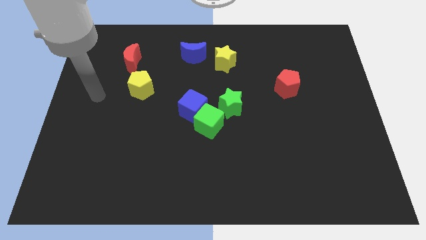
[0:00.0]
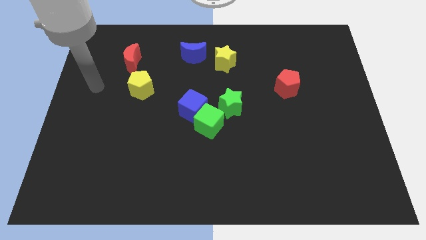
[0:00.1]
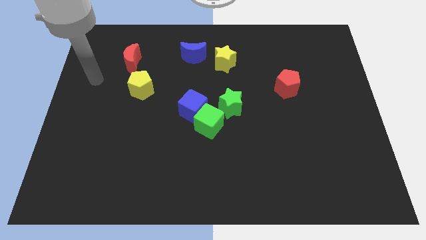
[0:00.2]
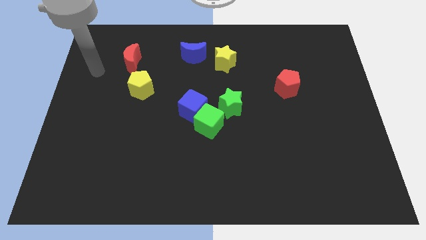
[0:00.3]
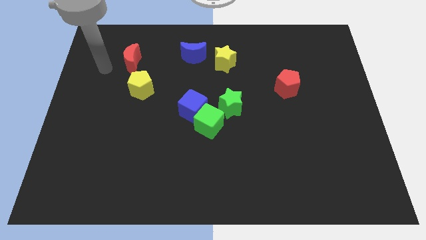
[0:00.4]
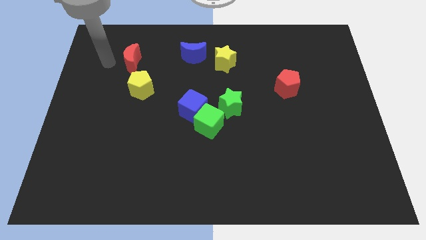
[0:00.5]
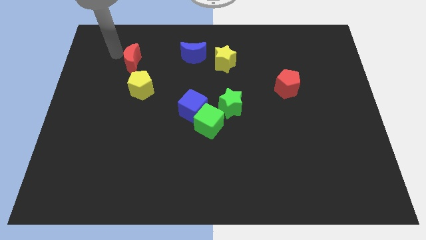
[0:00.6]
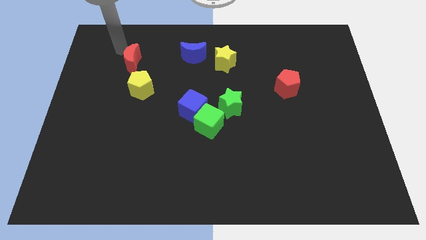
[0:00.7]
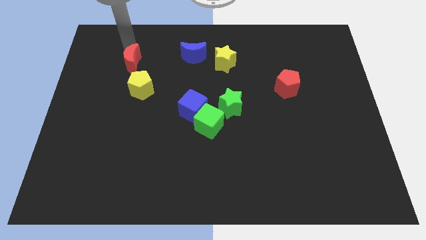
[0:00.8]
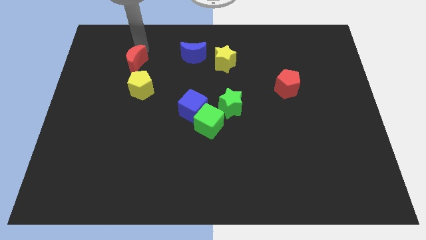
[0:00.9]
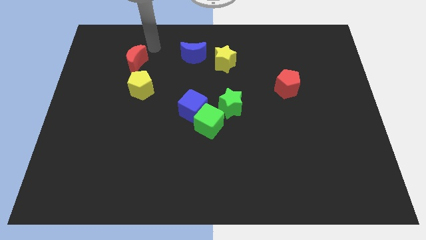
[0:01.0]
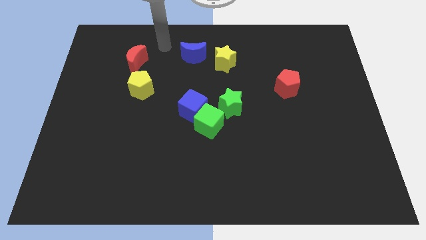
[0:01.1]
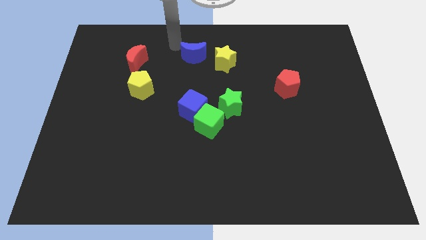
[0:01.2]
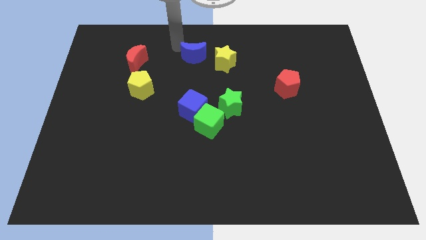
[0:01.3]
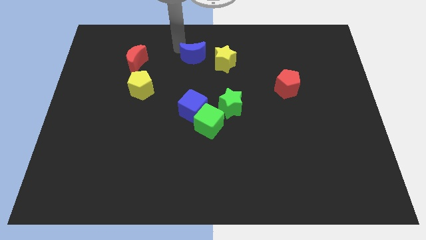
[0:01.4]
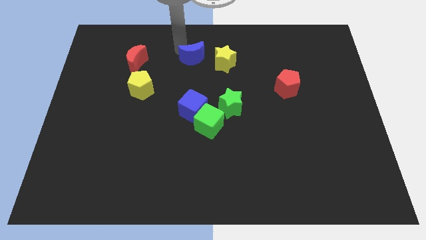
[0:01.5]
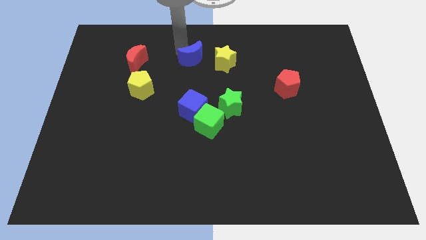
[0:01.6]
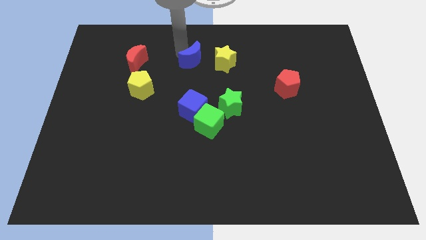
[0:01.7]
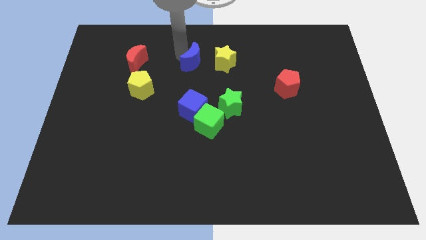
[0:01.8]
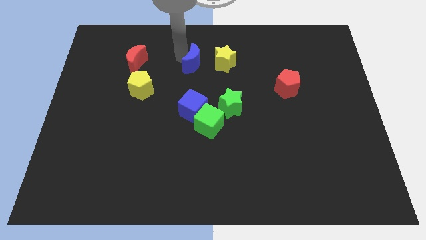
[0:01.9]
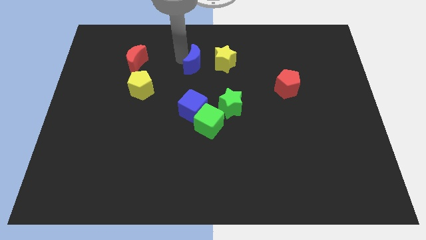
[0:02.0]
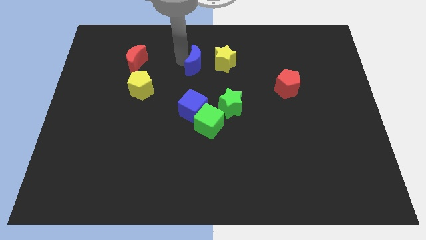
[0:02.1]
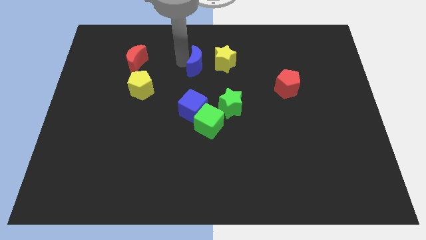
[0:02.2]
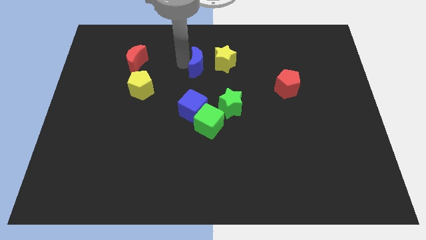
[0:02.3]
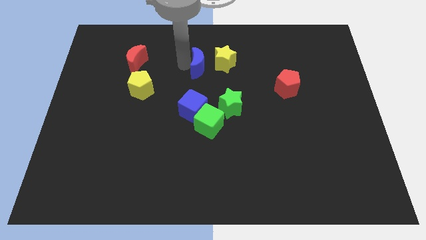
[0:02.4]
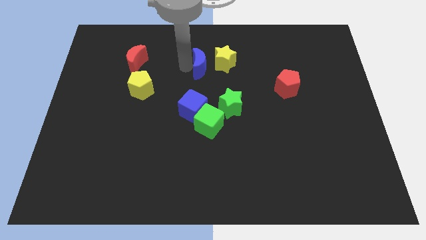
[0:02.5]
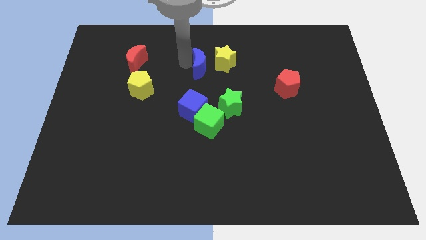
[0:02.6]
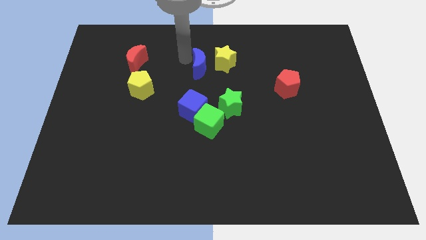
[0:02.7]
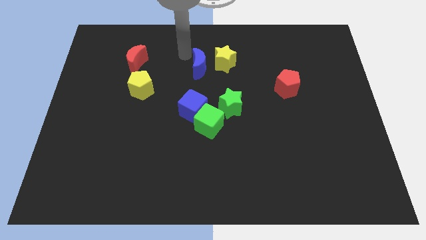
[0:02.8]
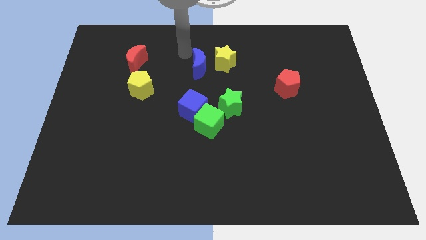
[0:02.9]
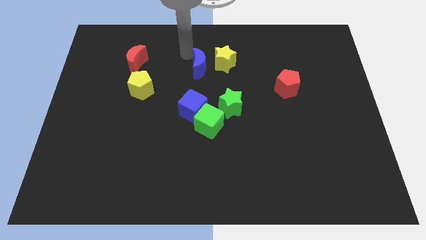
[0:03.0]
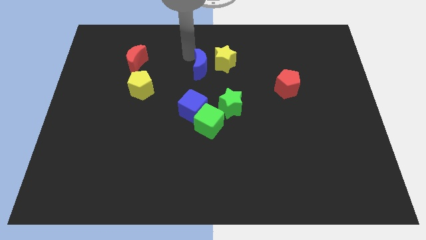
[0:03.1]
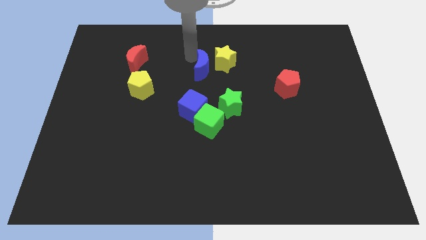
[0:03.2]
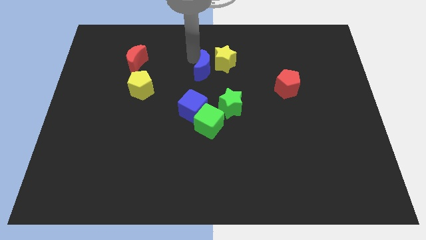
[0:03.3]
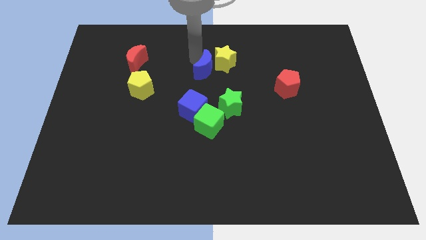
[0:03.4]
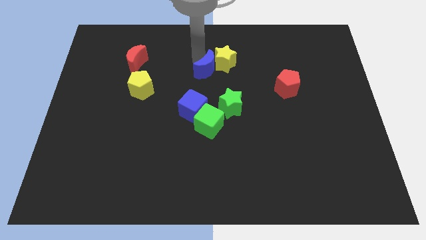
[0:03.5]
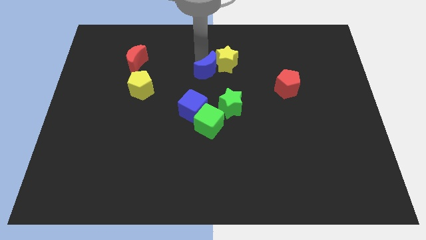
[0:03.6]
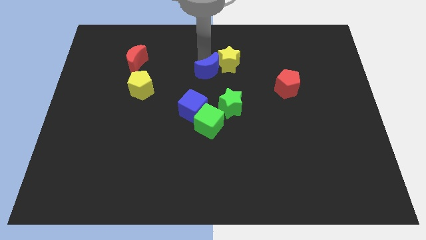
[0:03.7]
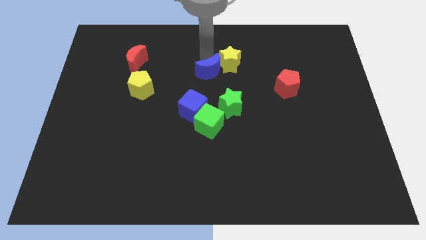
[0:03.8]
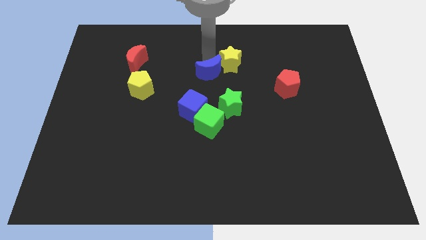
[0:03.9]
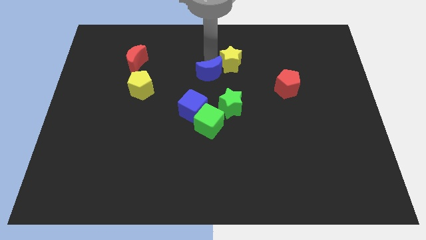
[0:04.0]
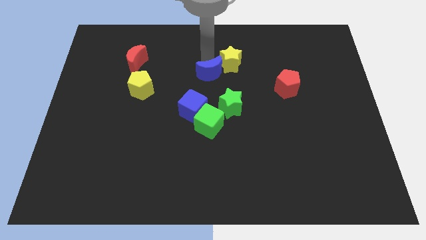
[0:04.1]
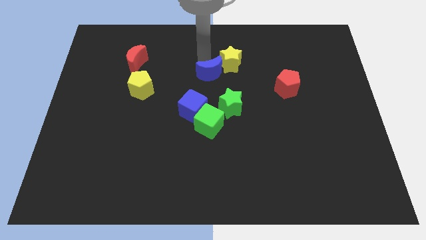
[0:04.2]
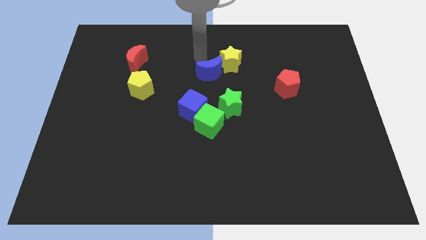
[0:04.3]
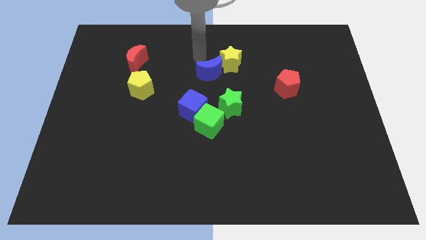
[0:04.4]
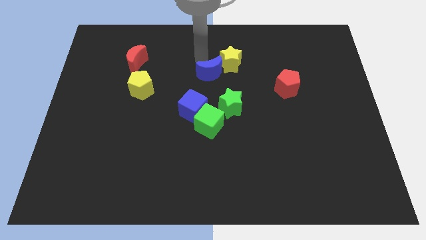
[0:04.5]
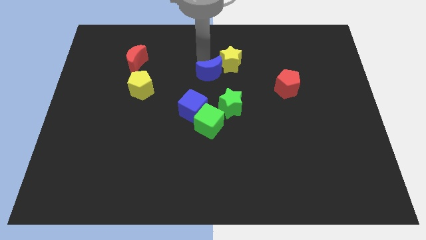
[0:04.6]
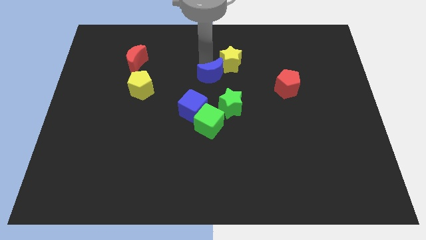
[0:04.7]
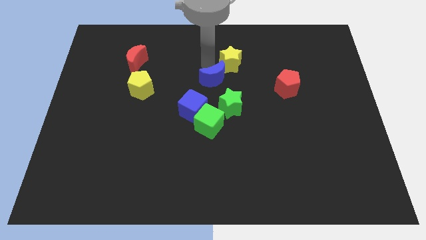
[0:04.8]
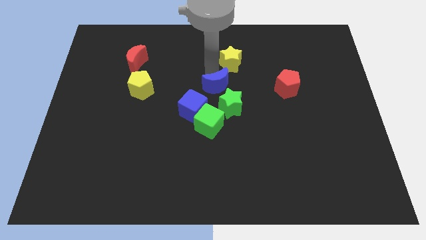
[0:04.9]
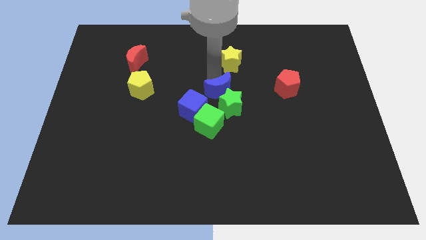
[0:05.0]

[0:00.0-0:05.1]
push the blue moon to the green star

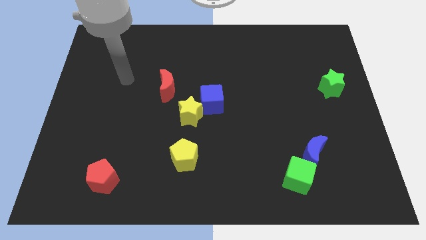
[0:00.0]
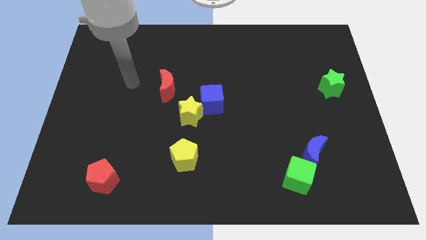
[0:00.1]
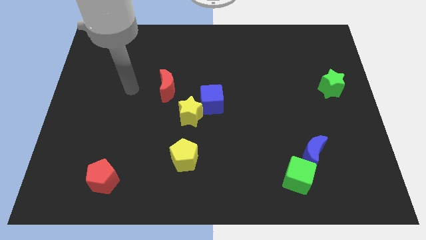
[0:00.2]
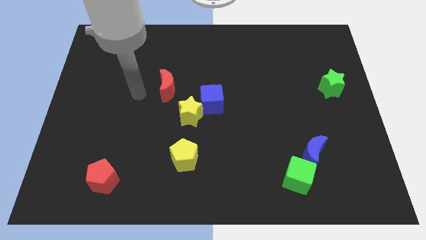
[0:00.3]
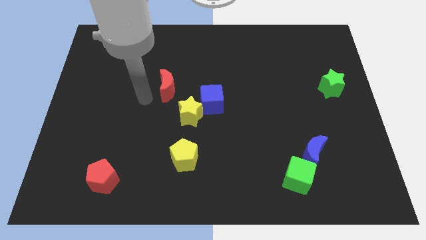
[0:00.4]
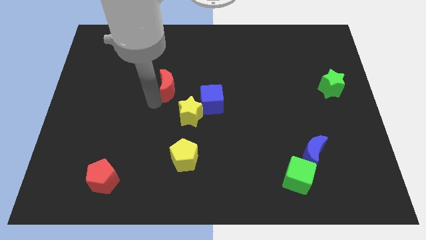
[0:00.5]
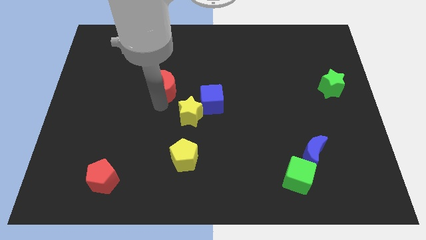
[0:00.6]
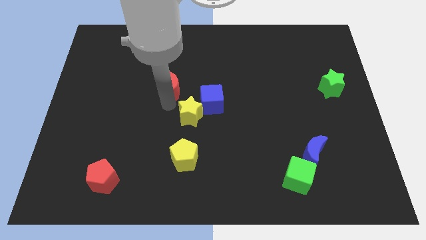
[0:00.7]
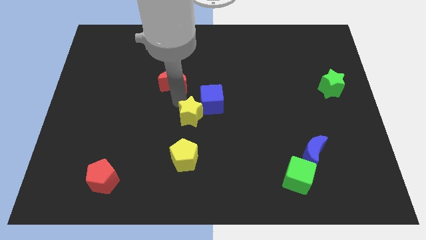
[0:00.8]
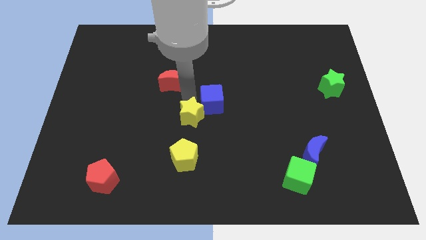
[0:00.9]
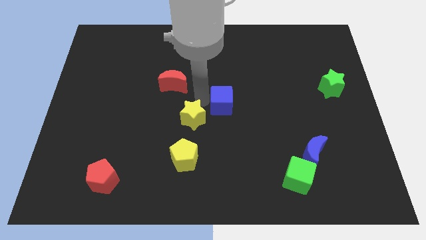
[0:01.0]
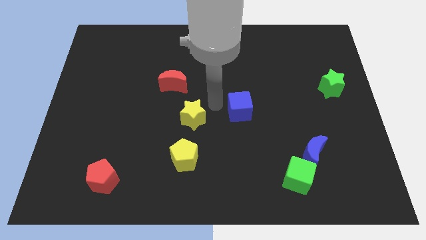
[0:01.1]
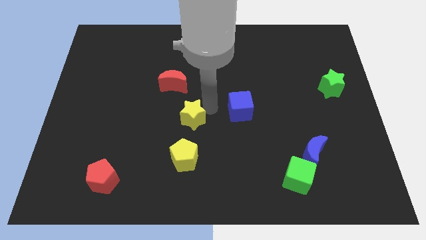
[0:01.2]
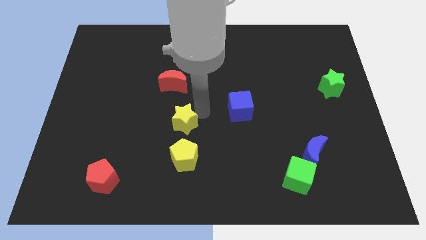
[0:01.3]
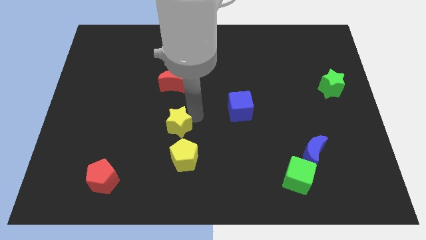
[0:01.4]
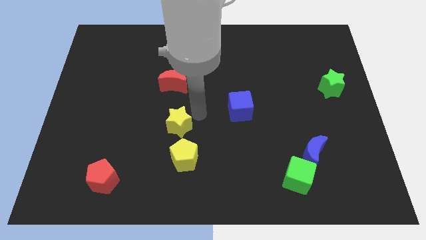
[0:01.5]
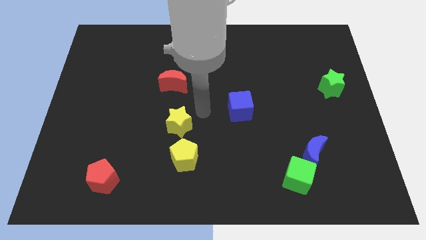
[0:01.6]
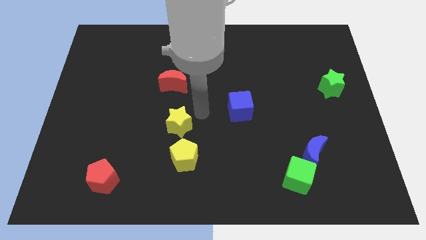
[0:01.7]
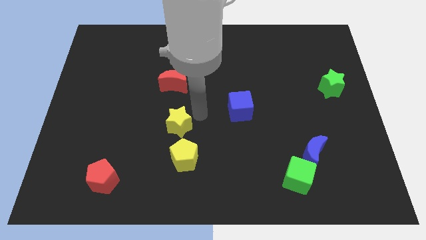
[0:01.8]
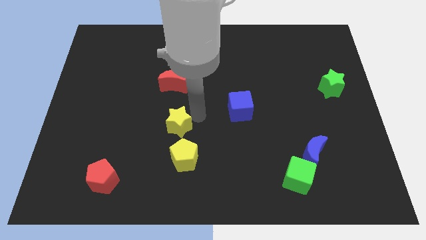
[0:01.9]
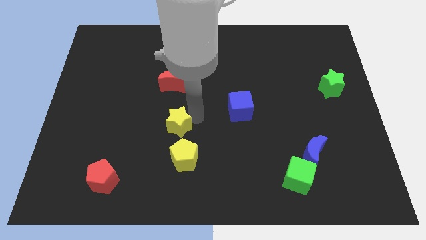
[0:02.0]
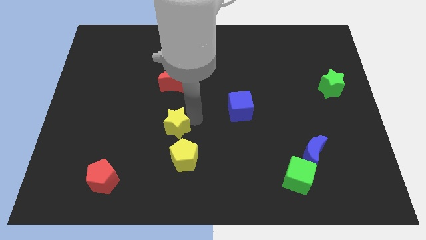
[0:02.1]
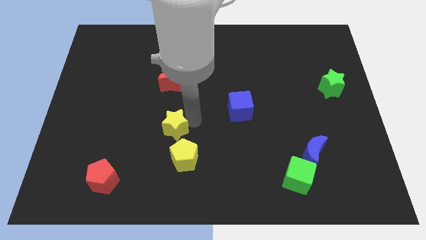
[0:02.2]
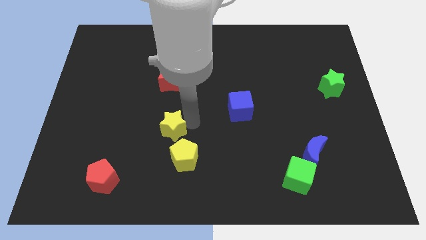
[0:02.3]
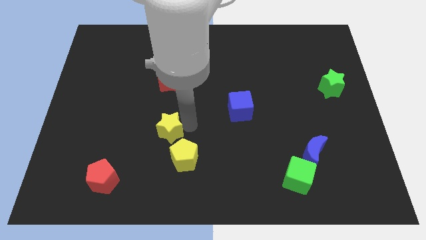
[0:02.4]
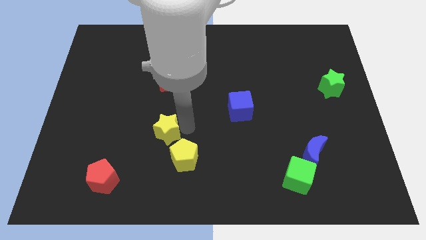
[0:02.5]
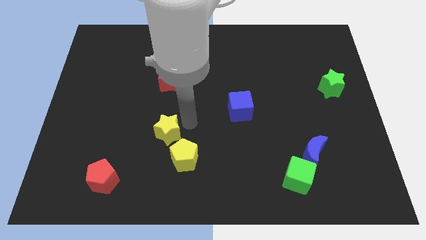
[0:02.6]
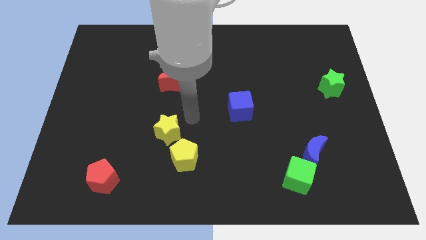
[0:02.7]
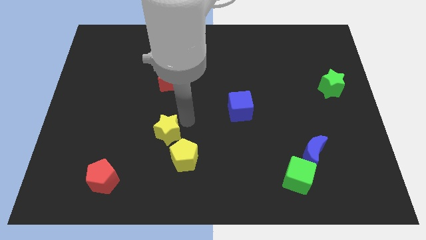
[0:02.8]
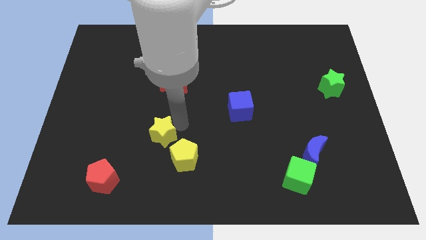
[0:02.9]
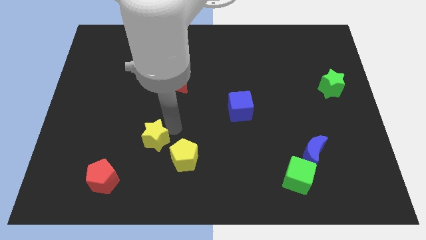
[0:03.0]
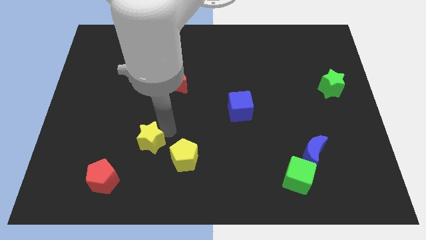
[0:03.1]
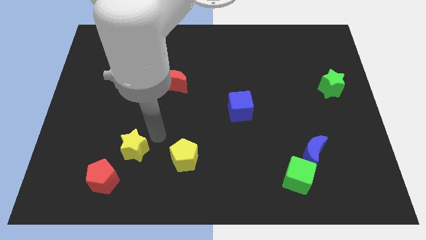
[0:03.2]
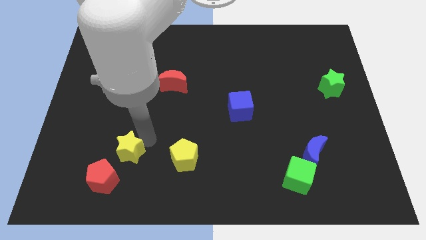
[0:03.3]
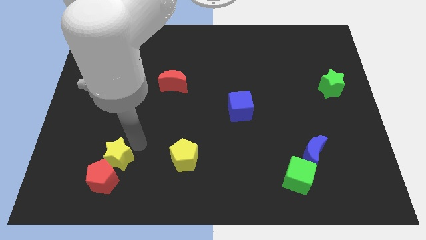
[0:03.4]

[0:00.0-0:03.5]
push the yellow star next to the red pentagon
